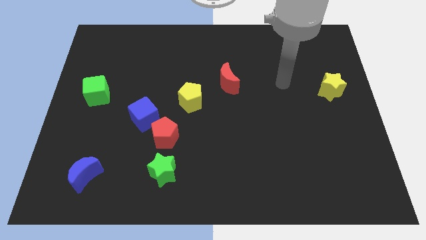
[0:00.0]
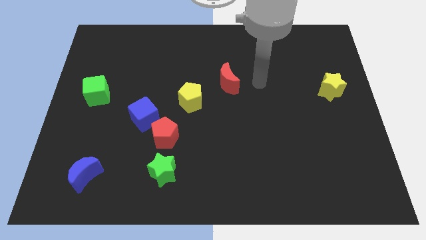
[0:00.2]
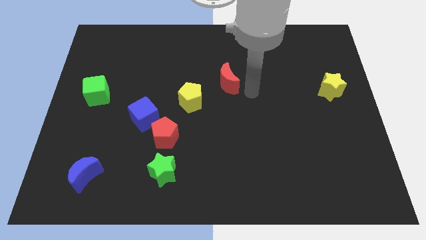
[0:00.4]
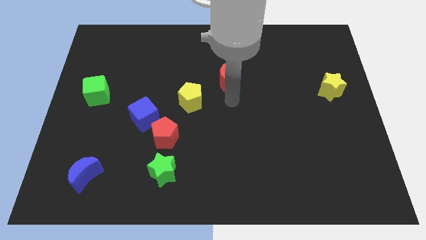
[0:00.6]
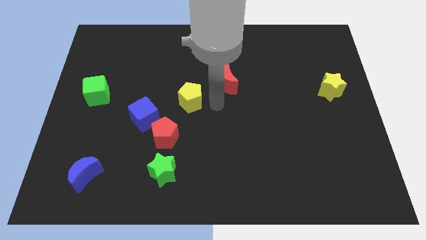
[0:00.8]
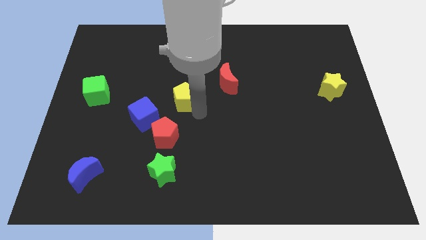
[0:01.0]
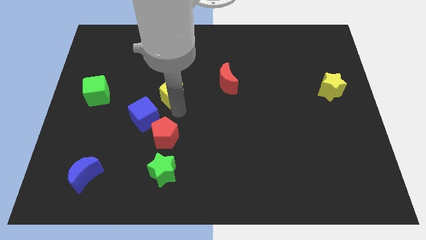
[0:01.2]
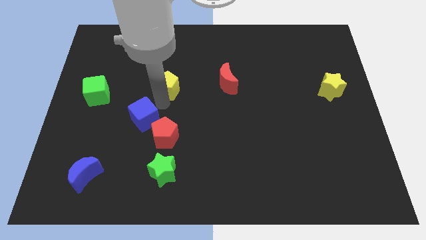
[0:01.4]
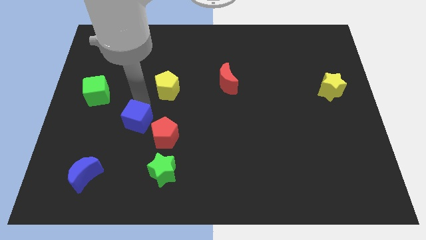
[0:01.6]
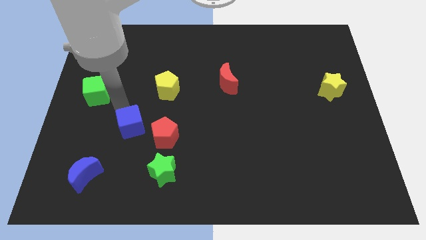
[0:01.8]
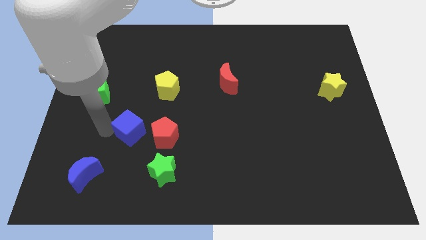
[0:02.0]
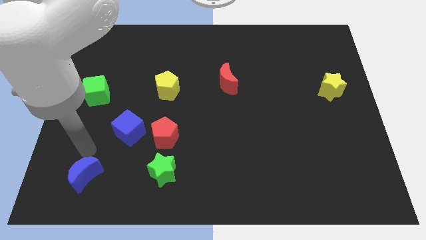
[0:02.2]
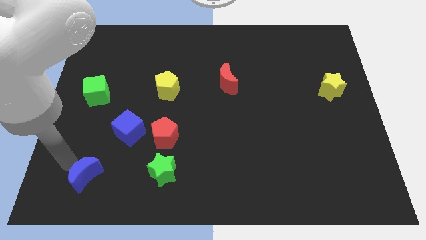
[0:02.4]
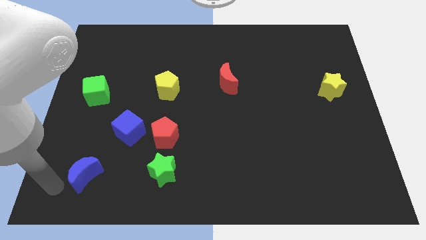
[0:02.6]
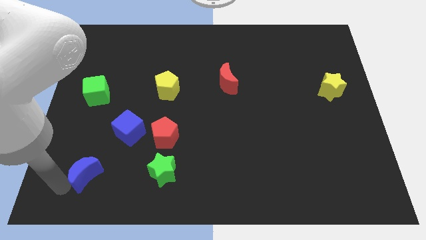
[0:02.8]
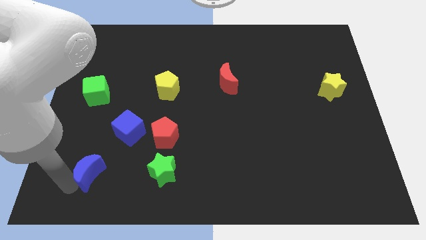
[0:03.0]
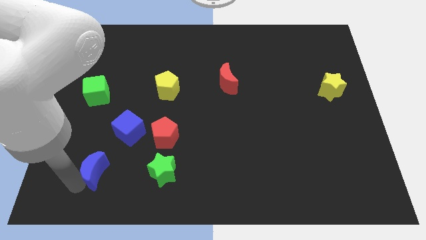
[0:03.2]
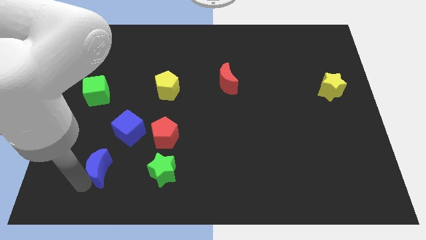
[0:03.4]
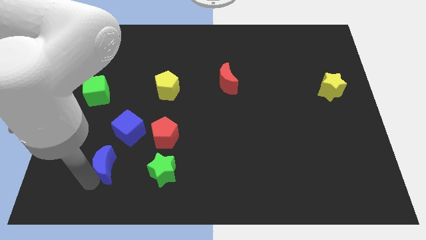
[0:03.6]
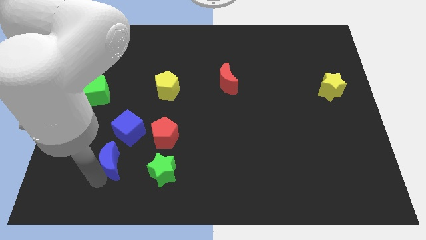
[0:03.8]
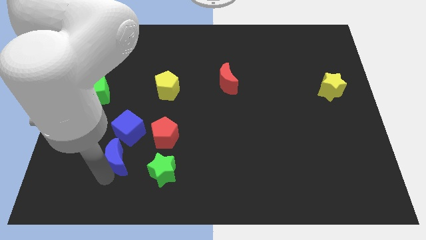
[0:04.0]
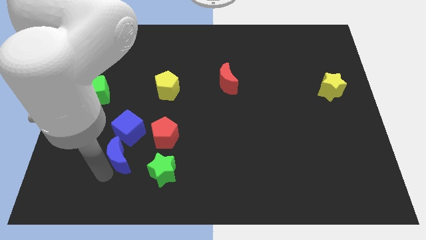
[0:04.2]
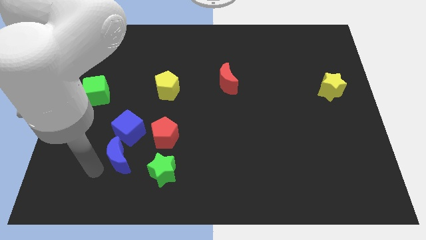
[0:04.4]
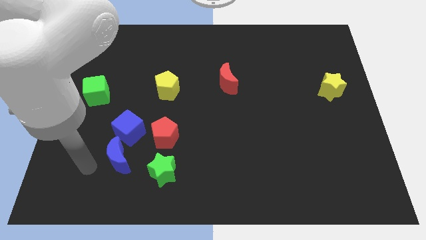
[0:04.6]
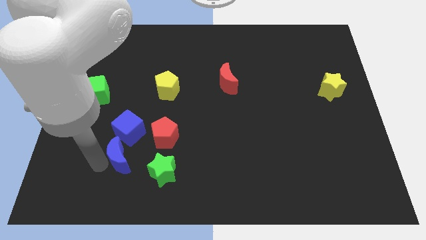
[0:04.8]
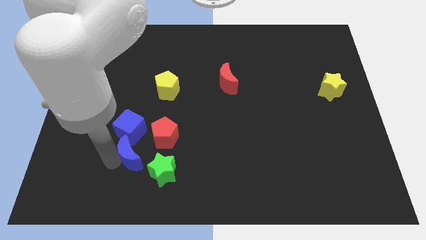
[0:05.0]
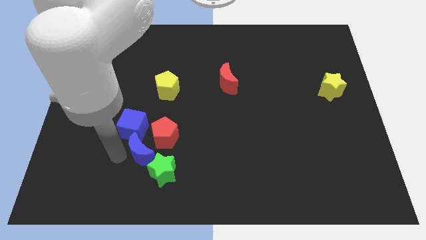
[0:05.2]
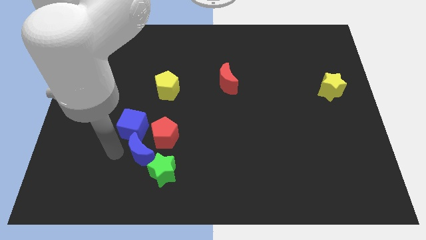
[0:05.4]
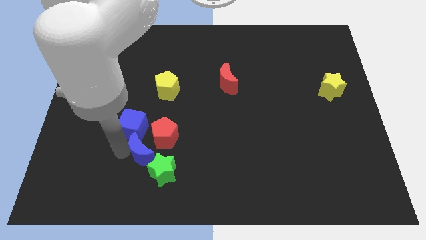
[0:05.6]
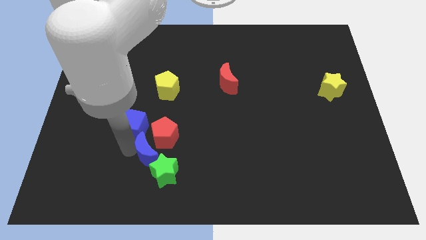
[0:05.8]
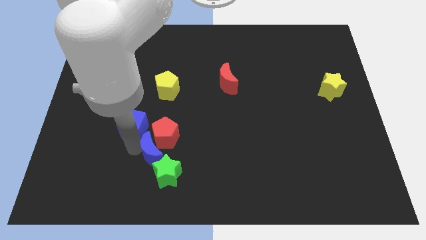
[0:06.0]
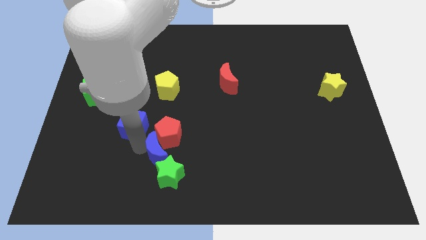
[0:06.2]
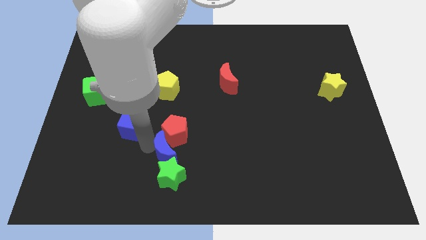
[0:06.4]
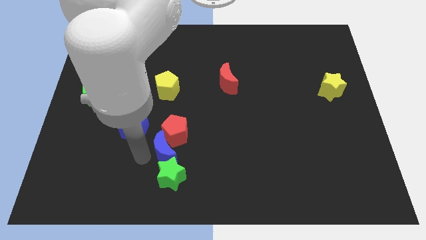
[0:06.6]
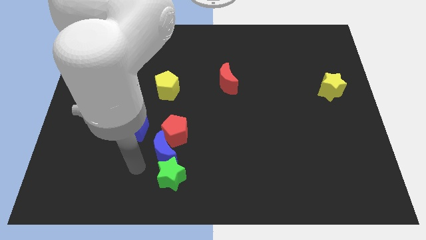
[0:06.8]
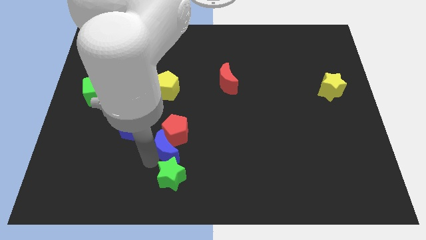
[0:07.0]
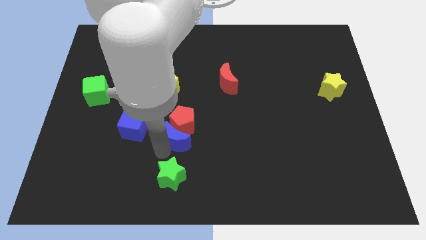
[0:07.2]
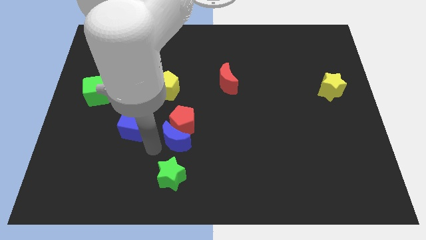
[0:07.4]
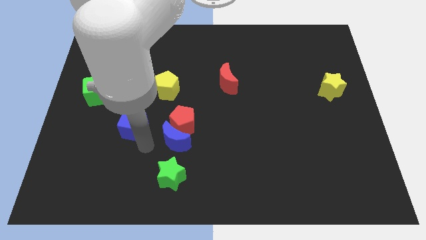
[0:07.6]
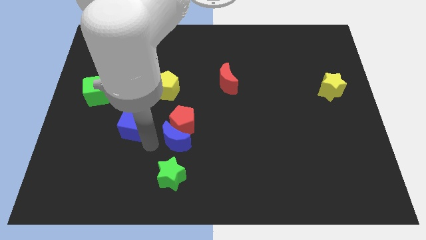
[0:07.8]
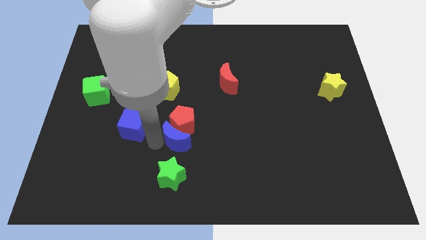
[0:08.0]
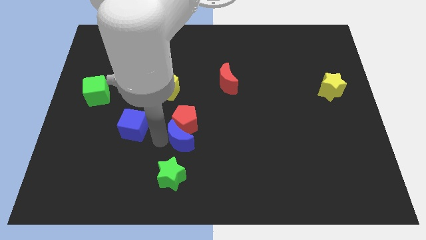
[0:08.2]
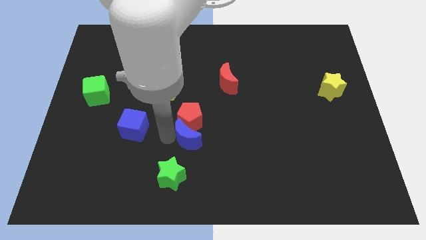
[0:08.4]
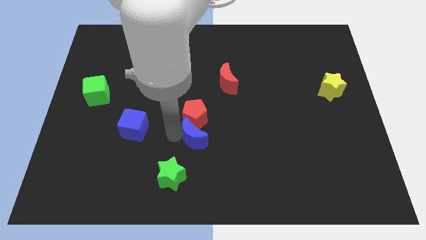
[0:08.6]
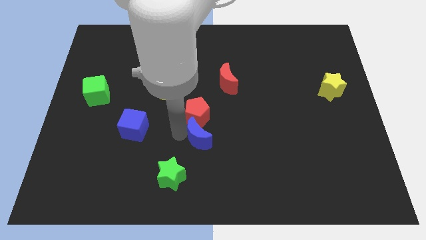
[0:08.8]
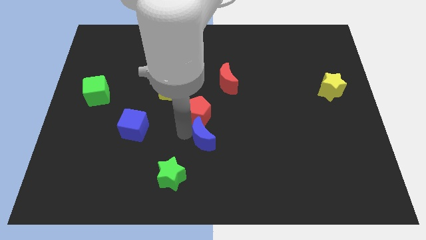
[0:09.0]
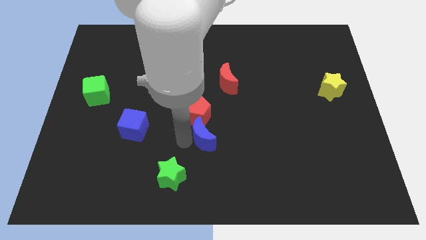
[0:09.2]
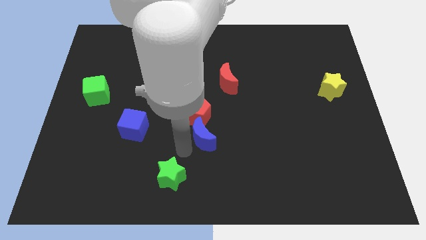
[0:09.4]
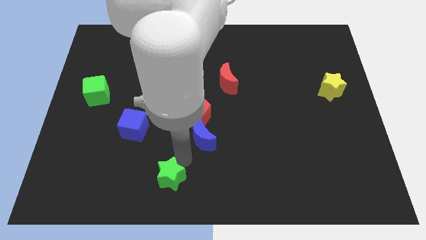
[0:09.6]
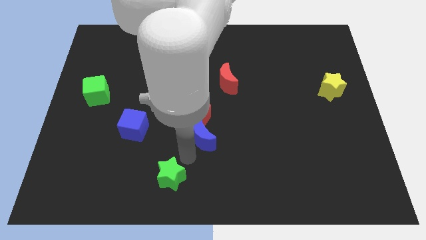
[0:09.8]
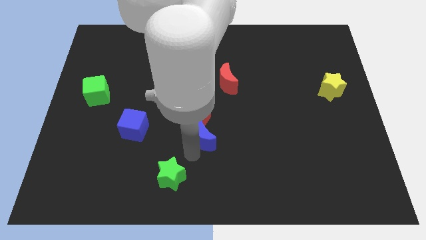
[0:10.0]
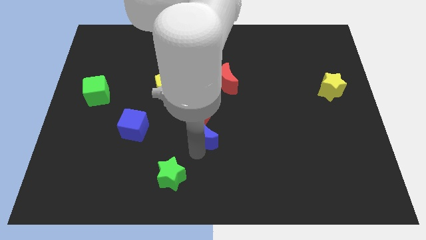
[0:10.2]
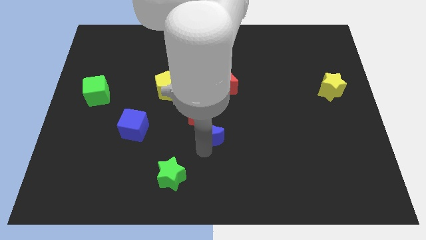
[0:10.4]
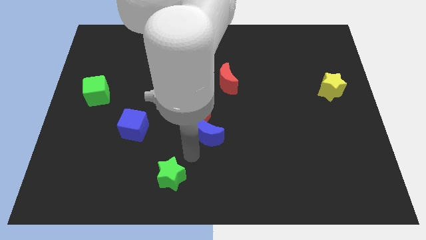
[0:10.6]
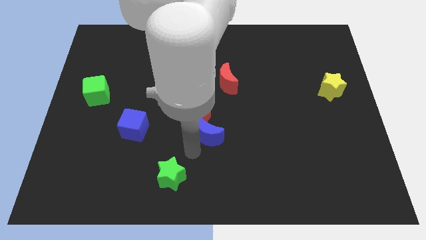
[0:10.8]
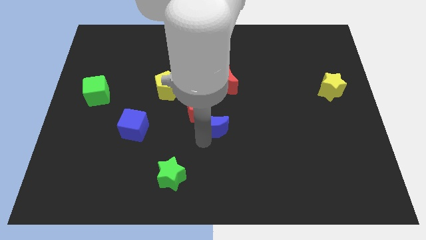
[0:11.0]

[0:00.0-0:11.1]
slide the blue moon to the bottom of the red moon

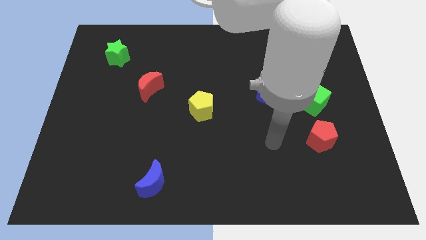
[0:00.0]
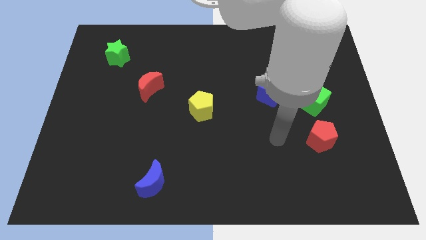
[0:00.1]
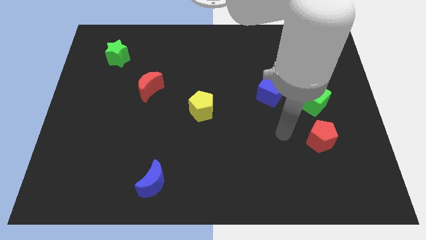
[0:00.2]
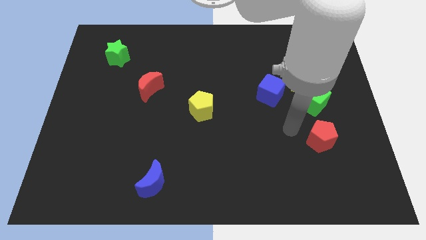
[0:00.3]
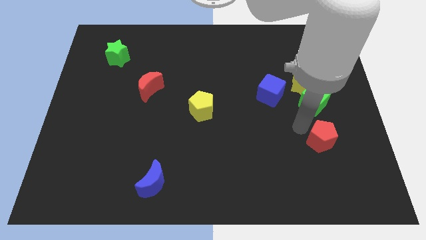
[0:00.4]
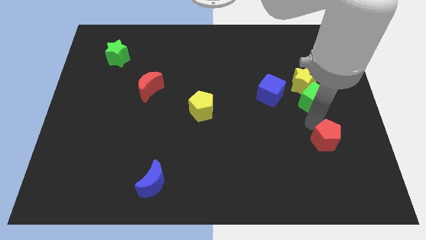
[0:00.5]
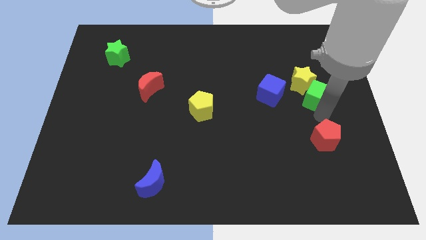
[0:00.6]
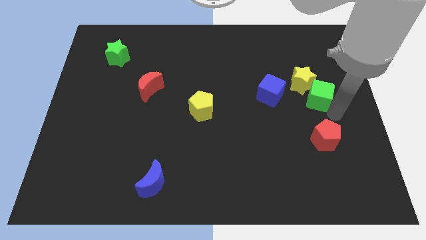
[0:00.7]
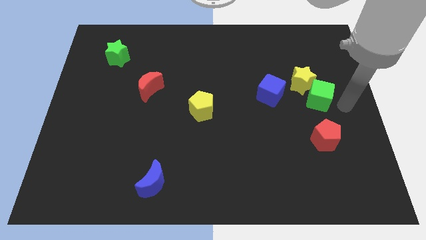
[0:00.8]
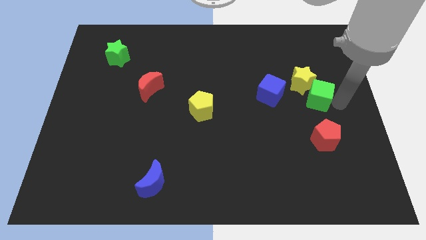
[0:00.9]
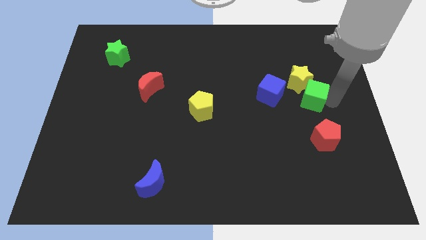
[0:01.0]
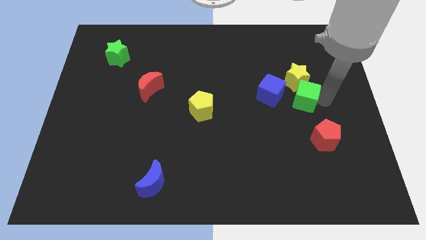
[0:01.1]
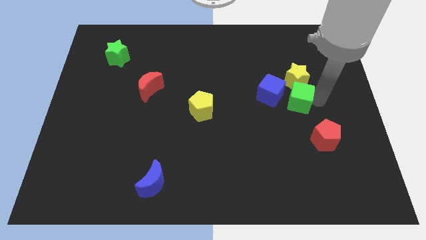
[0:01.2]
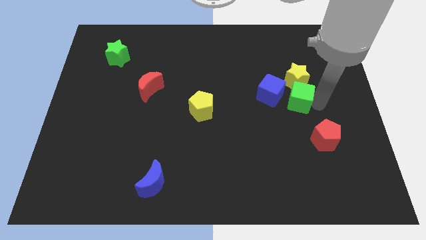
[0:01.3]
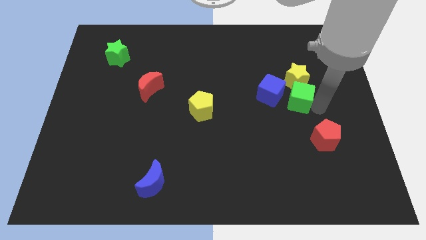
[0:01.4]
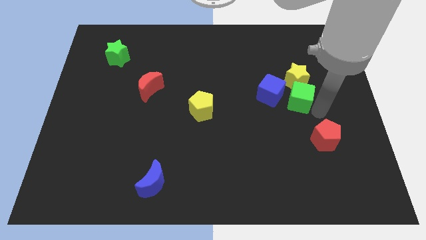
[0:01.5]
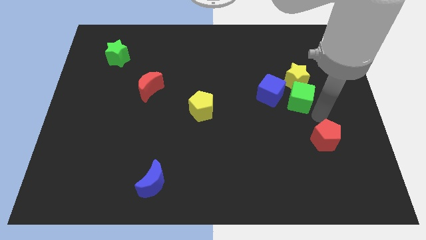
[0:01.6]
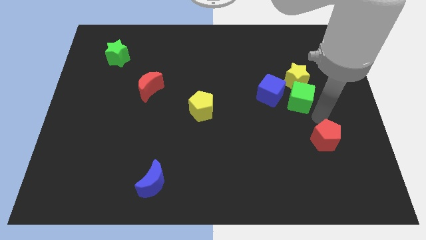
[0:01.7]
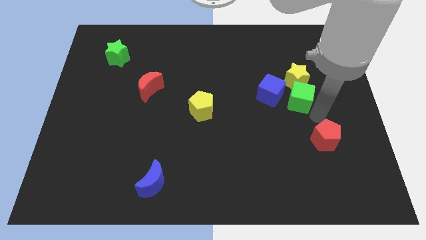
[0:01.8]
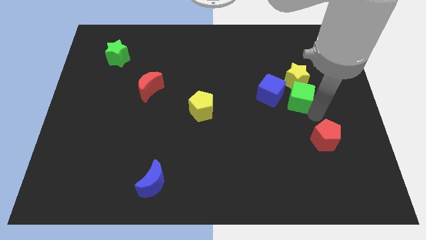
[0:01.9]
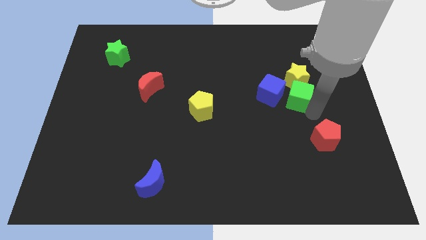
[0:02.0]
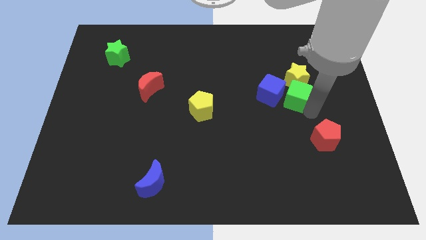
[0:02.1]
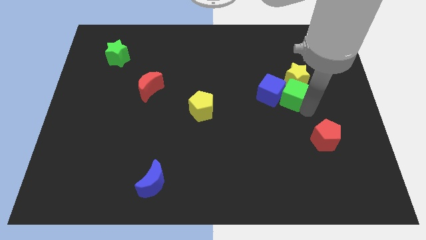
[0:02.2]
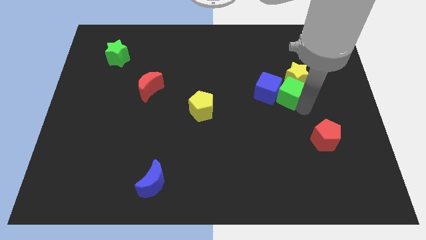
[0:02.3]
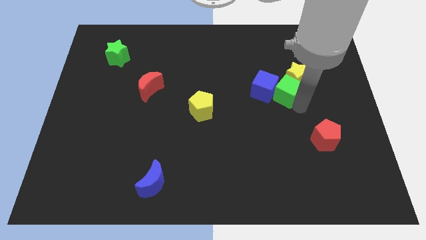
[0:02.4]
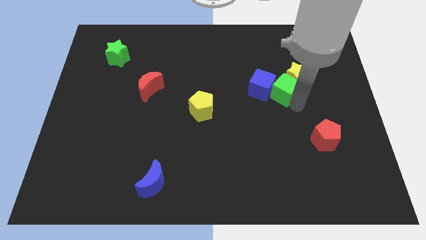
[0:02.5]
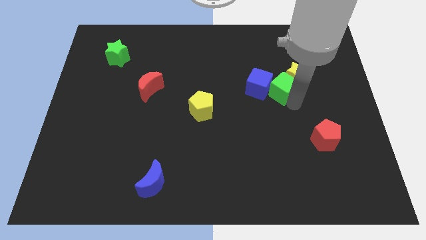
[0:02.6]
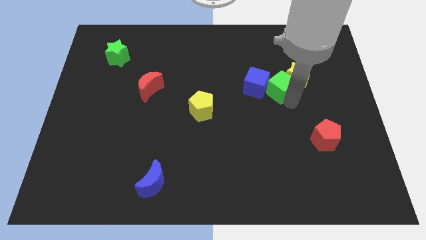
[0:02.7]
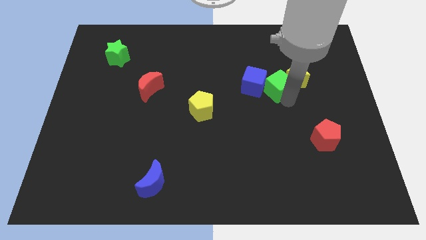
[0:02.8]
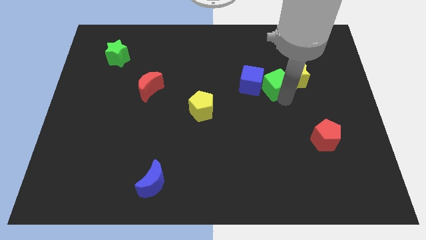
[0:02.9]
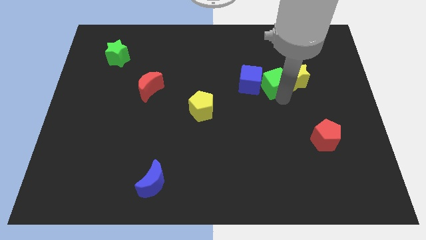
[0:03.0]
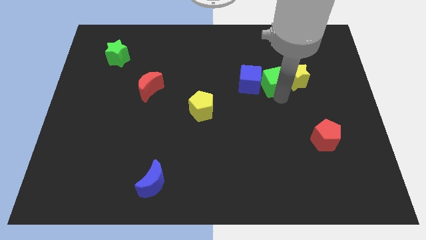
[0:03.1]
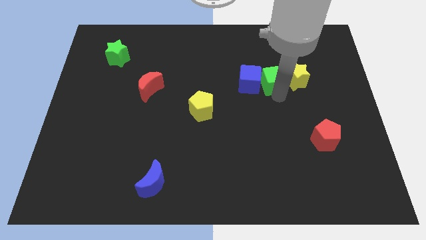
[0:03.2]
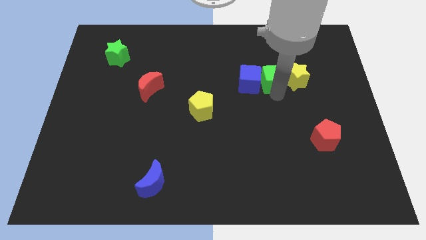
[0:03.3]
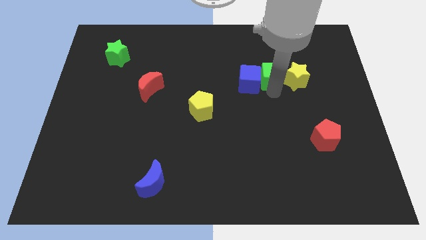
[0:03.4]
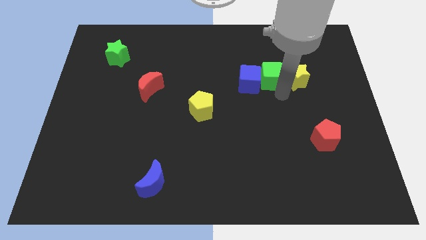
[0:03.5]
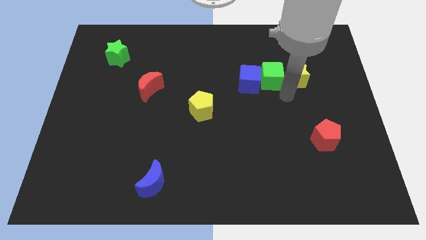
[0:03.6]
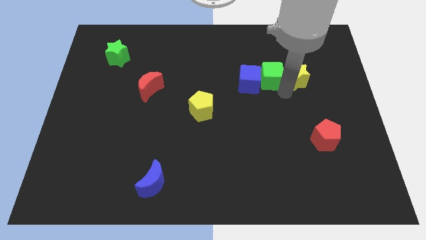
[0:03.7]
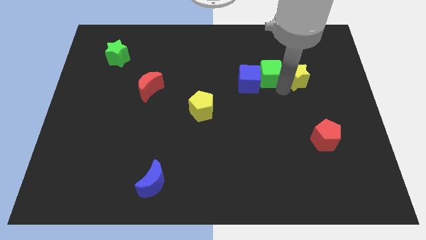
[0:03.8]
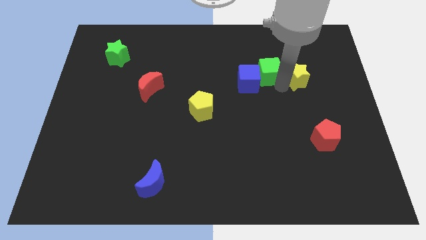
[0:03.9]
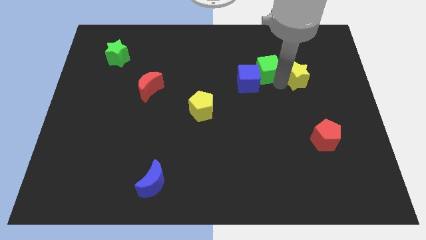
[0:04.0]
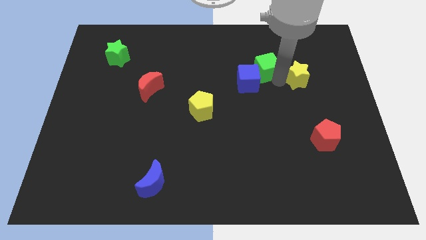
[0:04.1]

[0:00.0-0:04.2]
put the green cube to the top of the blue cube
